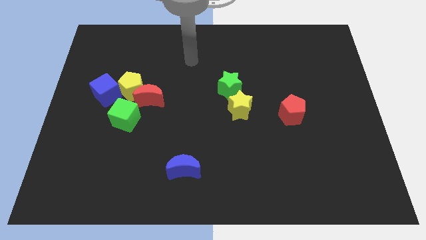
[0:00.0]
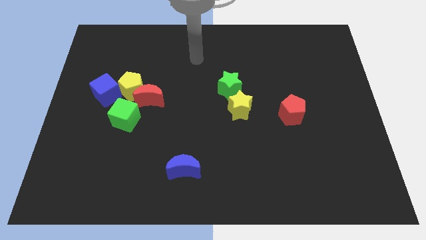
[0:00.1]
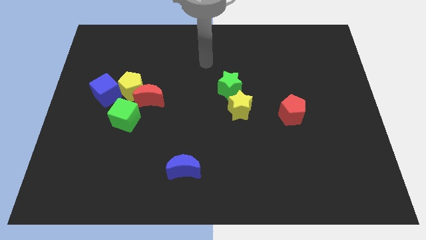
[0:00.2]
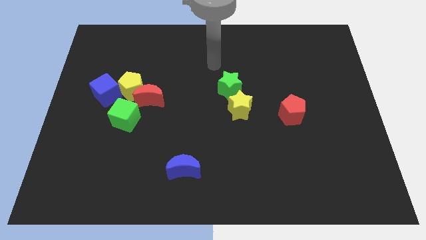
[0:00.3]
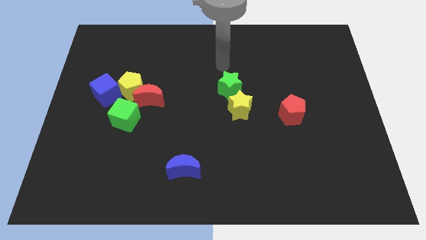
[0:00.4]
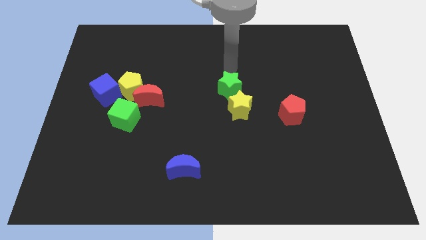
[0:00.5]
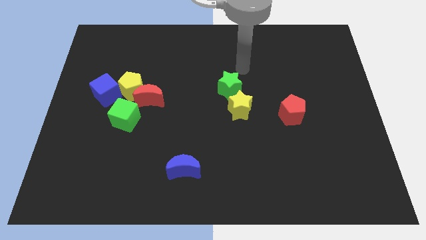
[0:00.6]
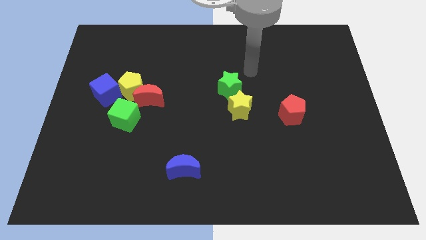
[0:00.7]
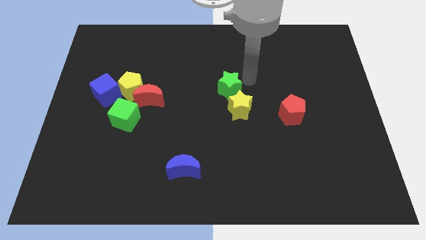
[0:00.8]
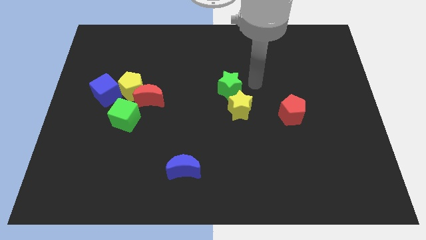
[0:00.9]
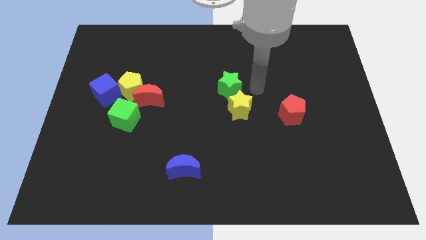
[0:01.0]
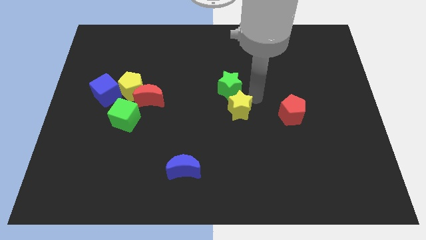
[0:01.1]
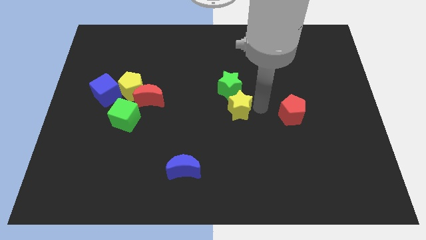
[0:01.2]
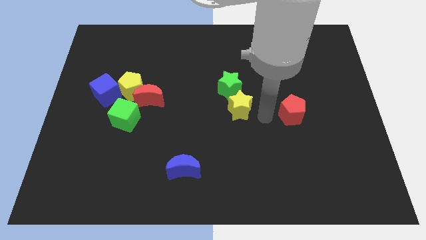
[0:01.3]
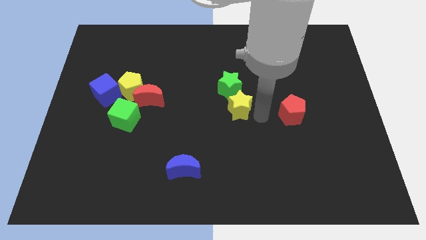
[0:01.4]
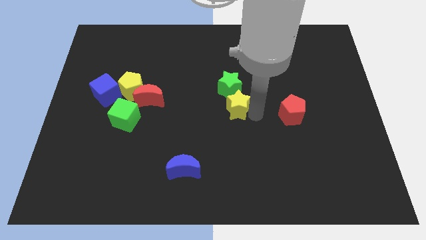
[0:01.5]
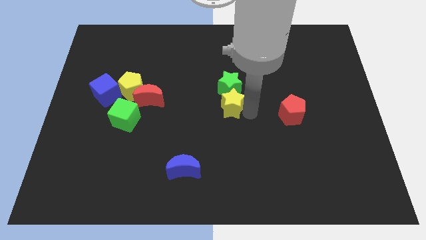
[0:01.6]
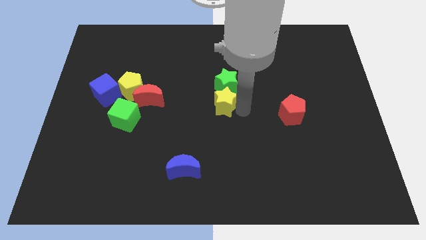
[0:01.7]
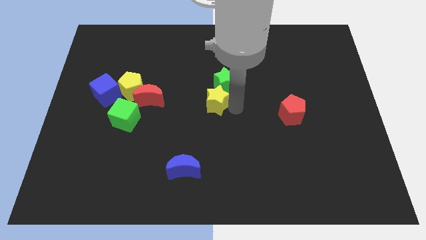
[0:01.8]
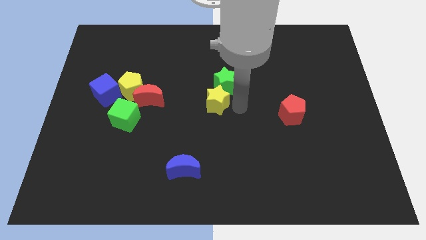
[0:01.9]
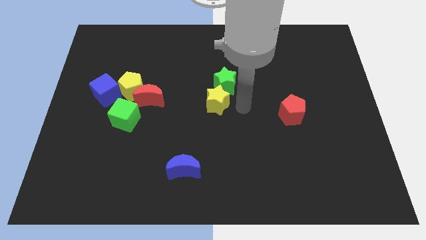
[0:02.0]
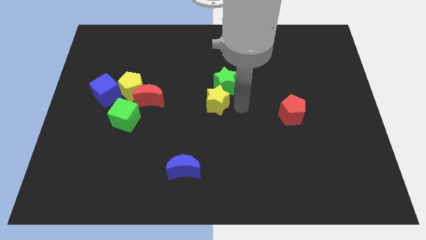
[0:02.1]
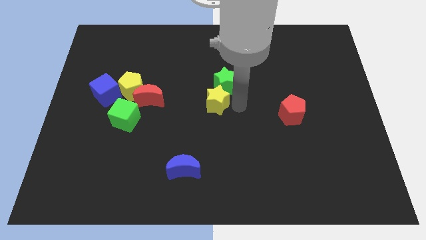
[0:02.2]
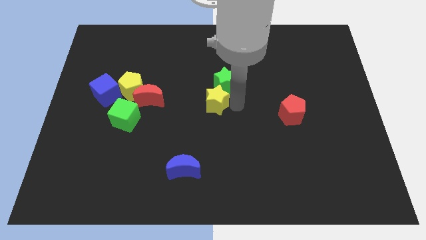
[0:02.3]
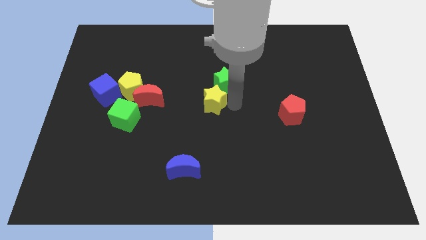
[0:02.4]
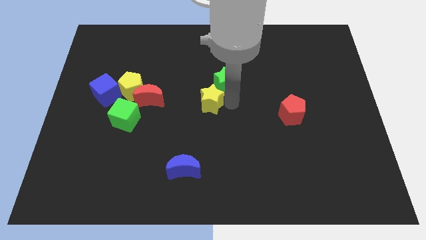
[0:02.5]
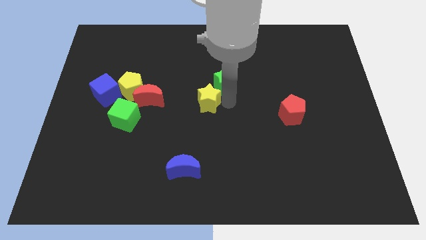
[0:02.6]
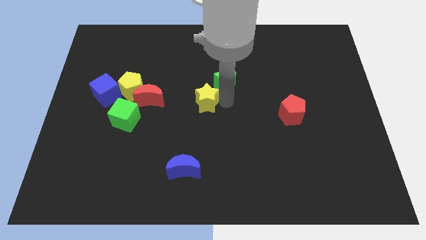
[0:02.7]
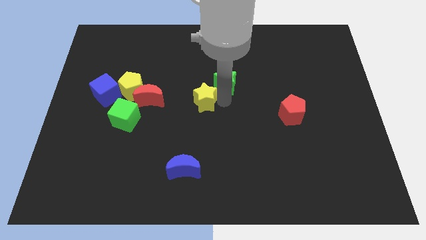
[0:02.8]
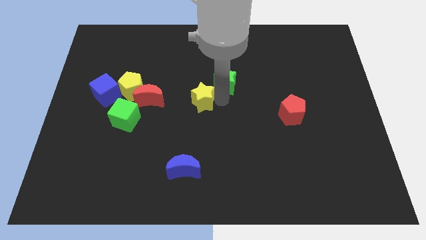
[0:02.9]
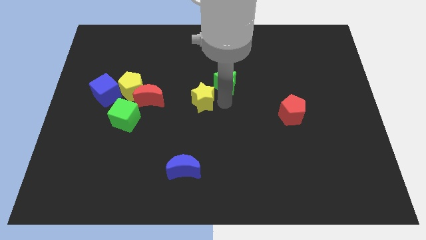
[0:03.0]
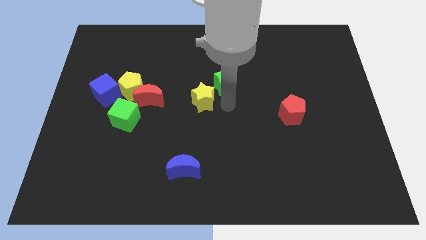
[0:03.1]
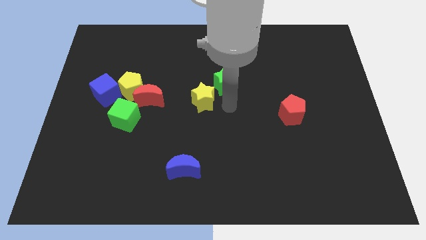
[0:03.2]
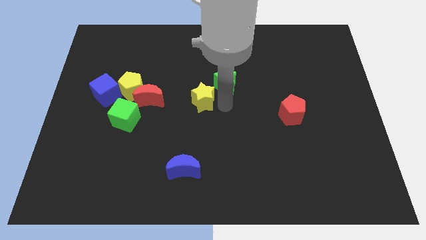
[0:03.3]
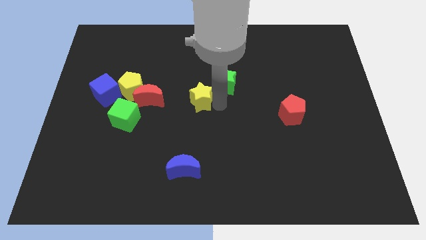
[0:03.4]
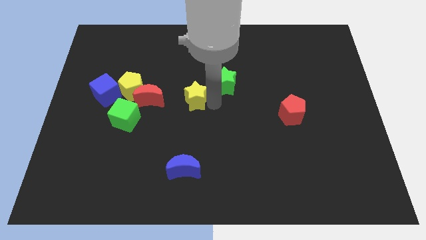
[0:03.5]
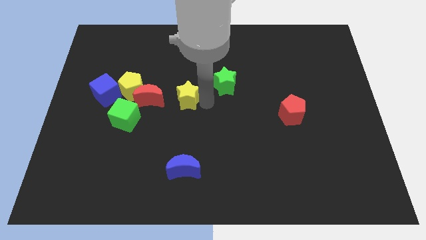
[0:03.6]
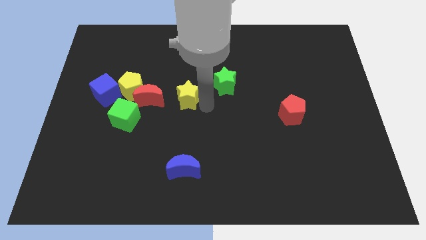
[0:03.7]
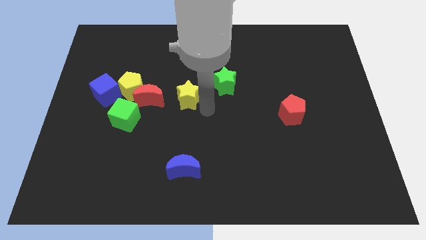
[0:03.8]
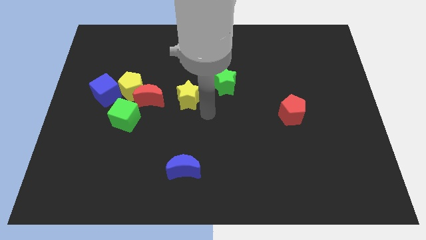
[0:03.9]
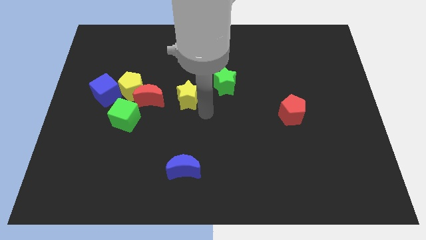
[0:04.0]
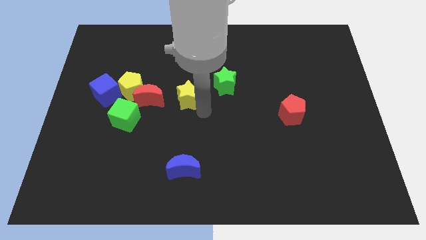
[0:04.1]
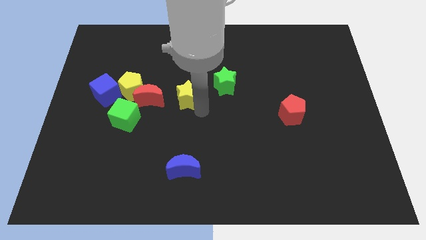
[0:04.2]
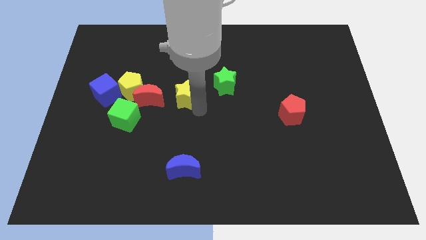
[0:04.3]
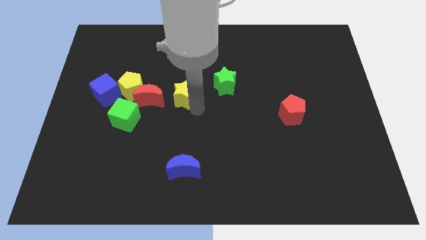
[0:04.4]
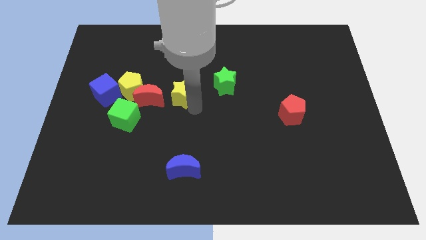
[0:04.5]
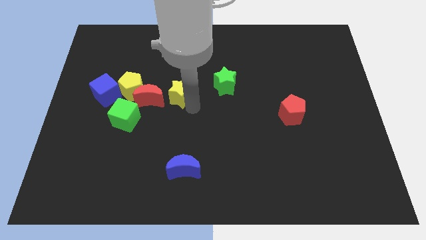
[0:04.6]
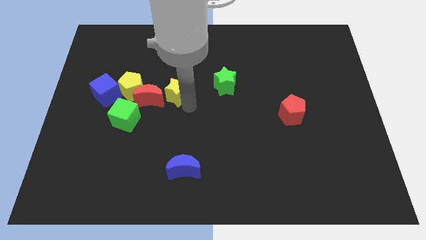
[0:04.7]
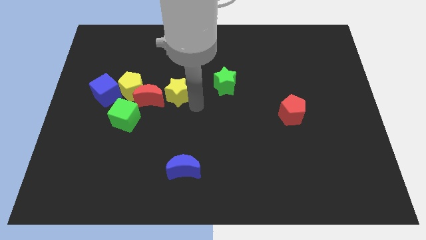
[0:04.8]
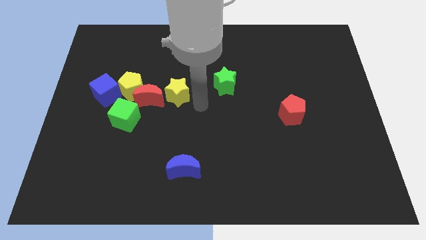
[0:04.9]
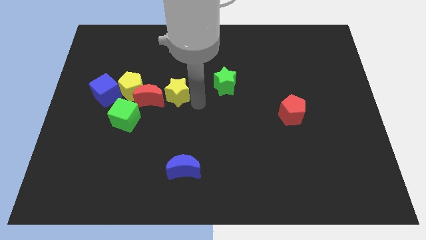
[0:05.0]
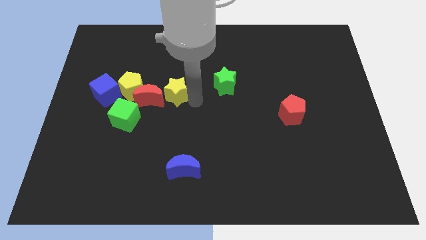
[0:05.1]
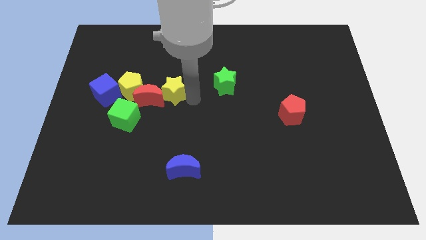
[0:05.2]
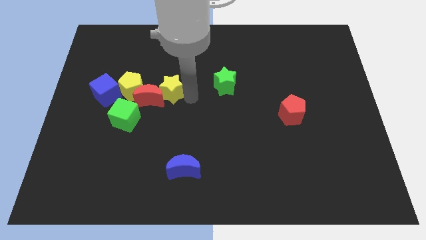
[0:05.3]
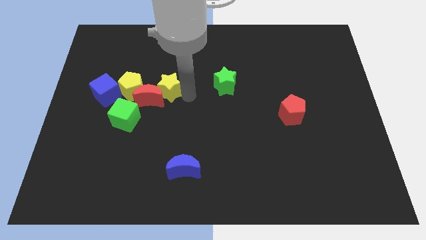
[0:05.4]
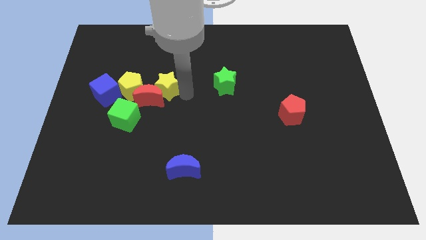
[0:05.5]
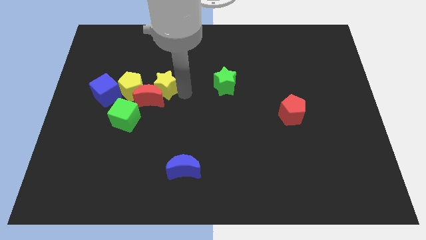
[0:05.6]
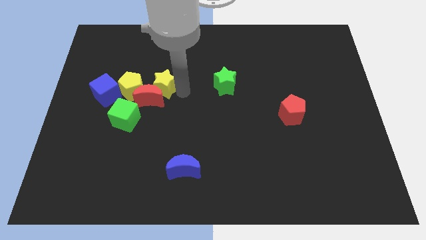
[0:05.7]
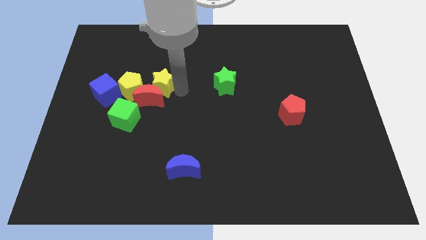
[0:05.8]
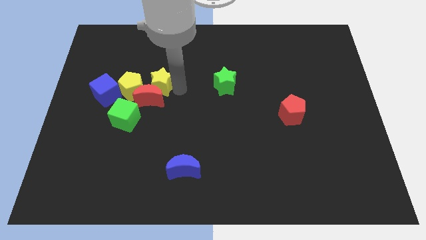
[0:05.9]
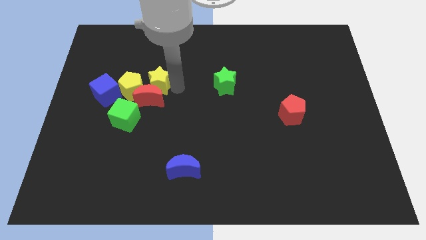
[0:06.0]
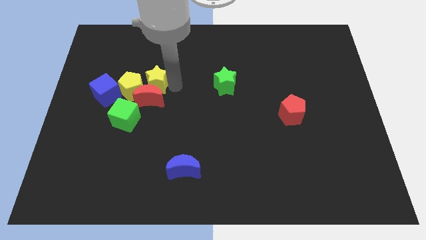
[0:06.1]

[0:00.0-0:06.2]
push the yellow star towards the yellow pentagon
